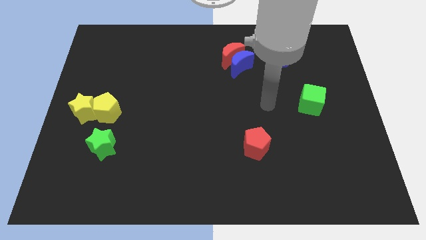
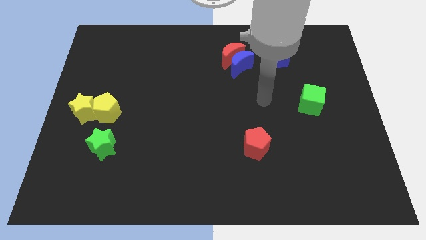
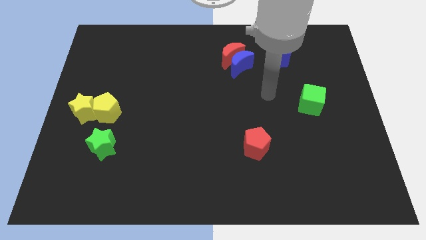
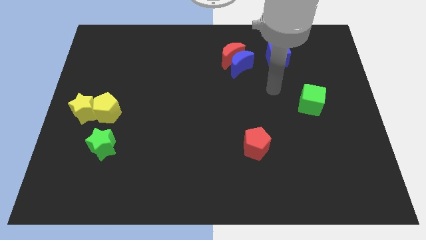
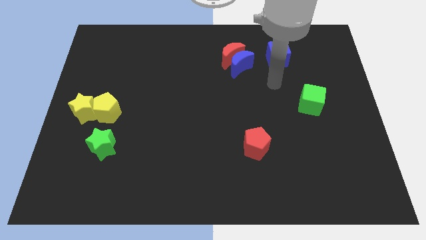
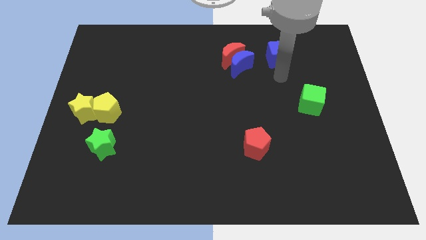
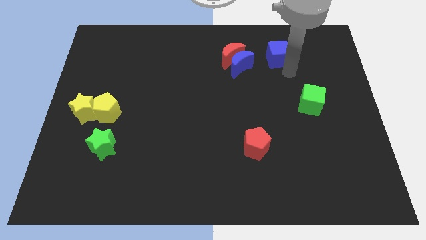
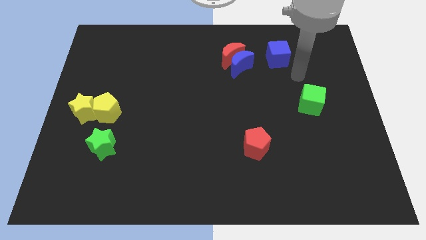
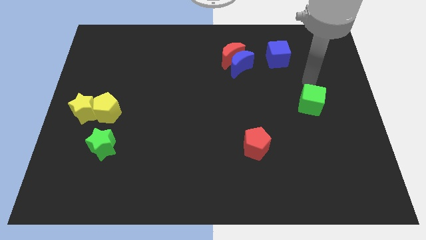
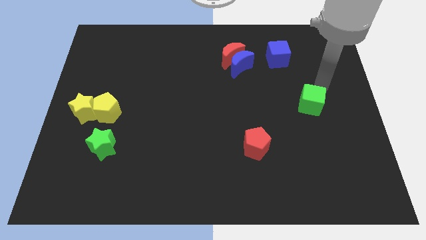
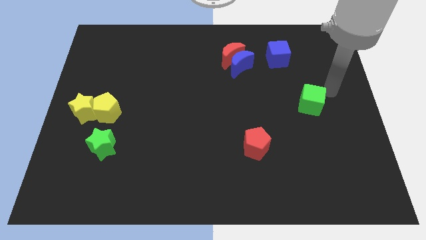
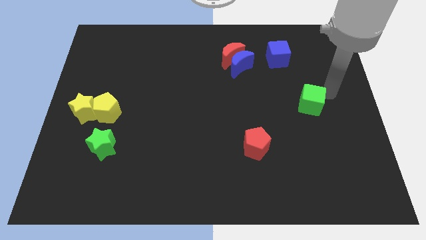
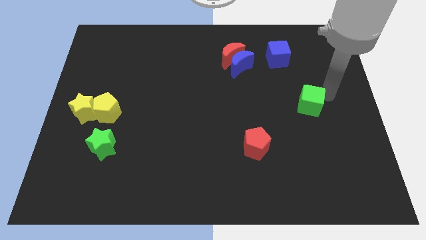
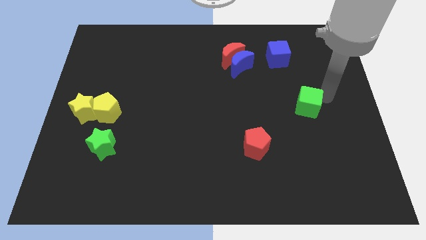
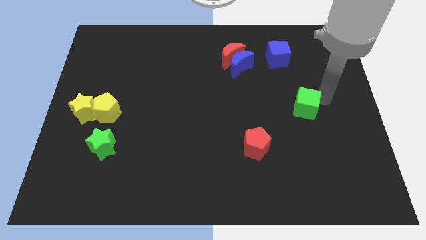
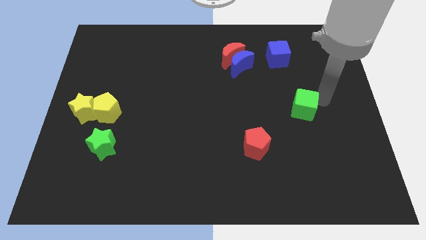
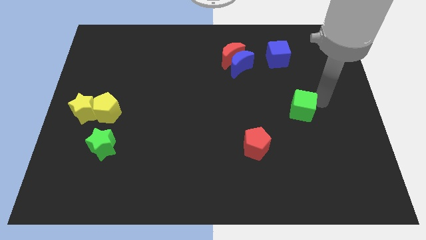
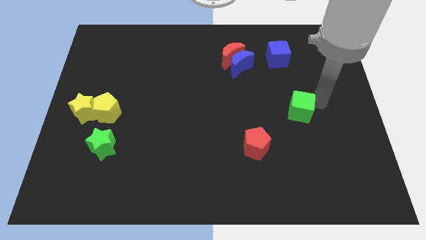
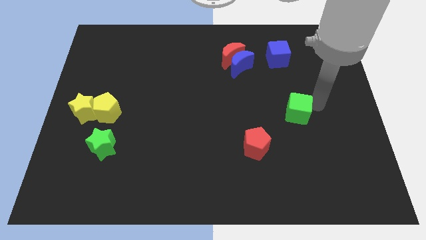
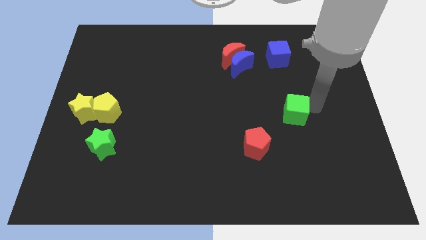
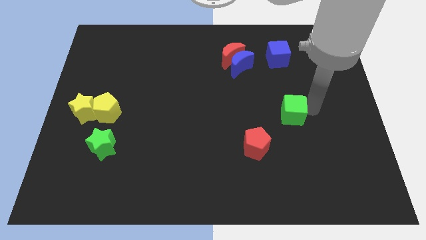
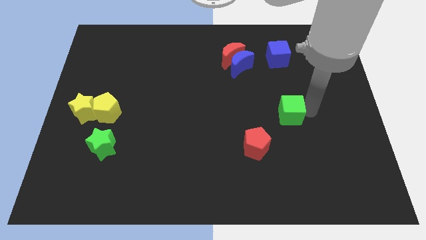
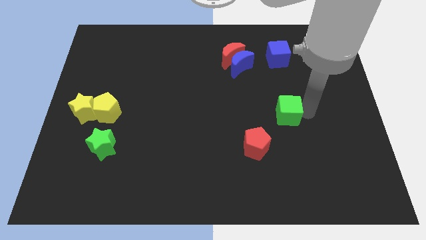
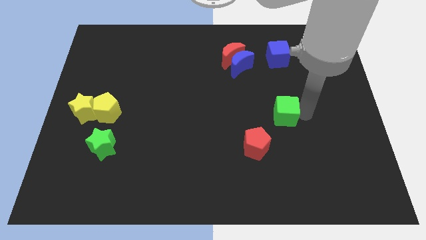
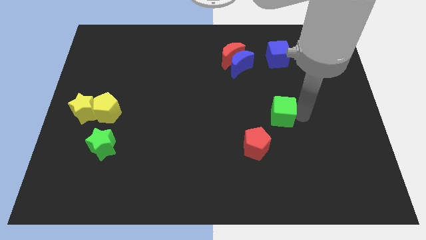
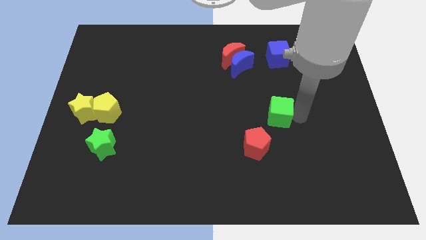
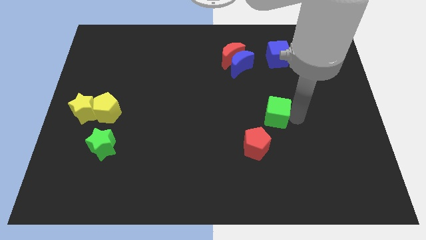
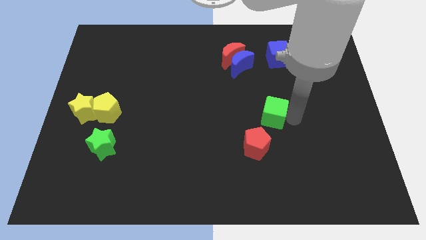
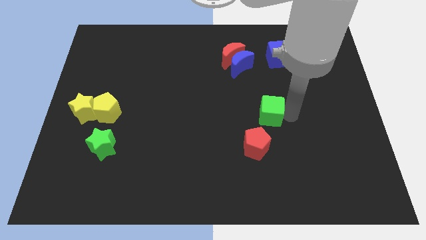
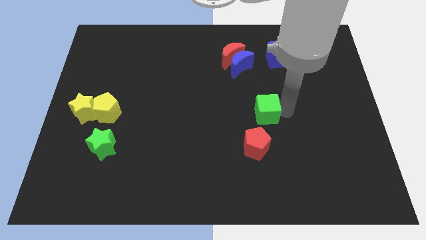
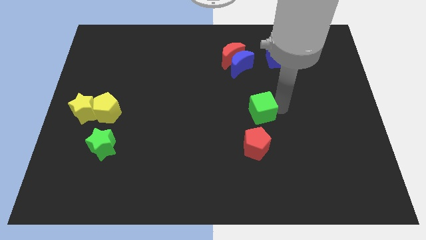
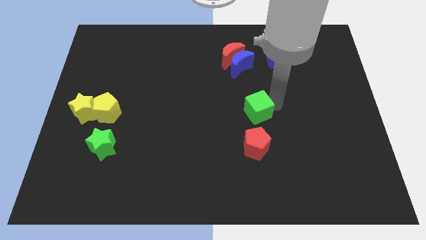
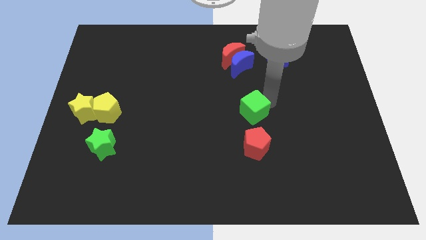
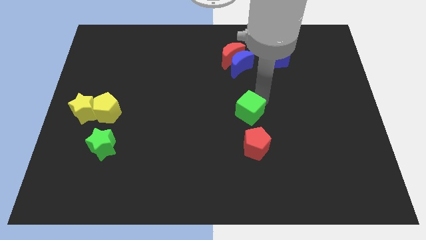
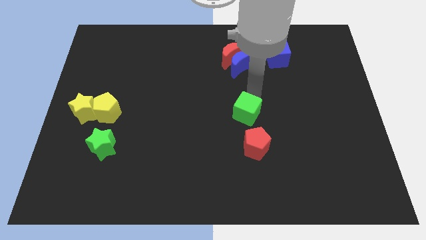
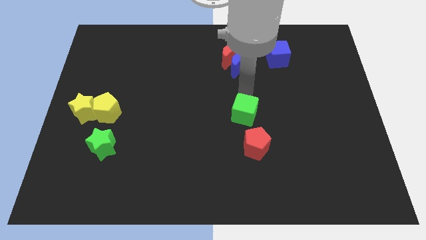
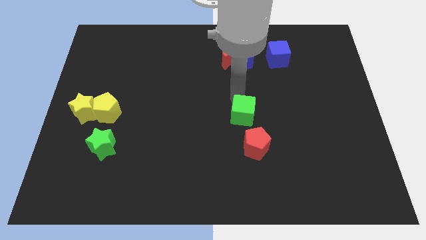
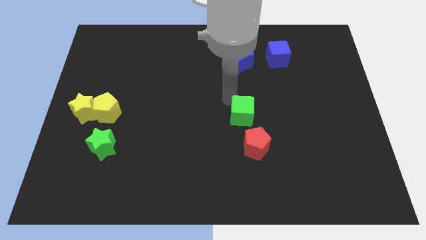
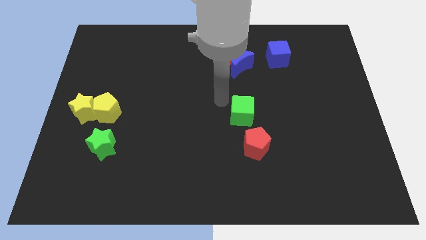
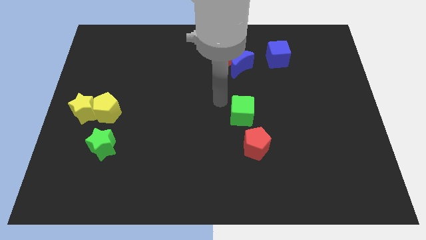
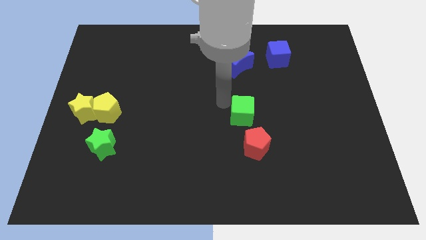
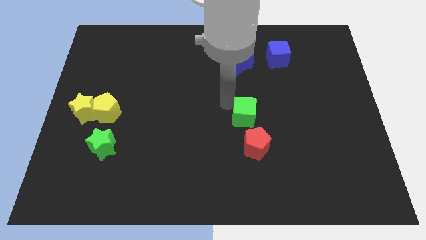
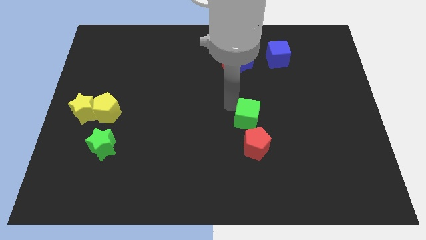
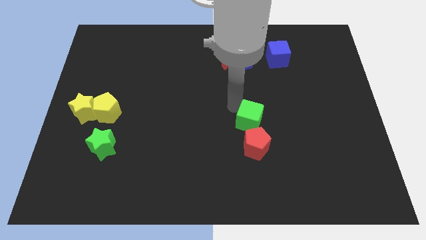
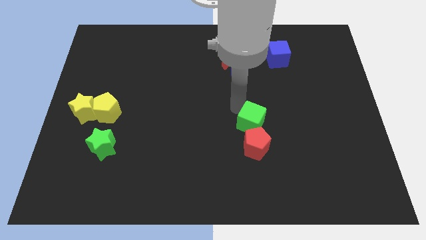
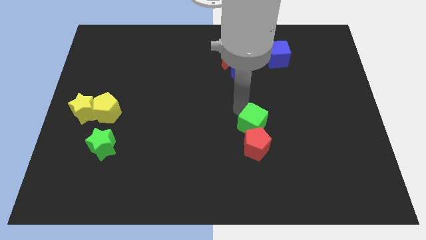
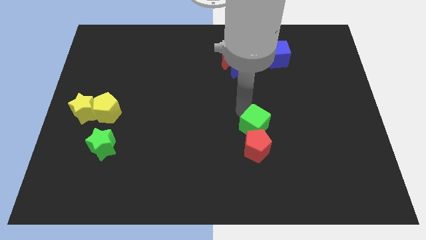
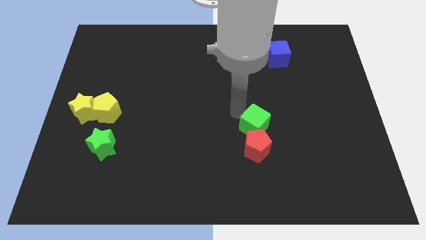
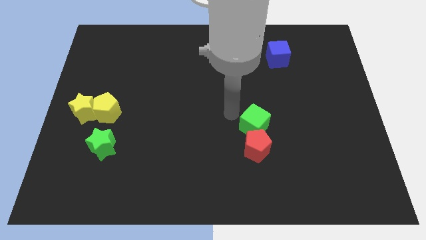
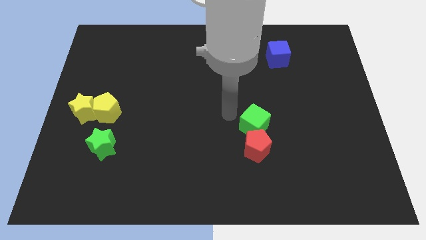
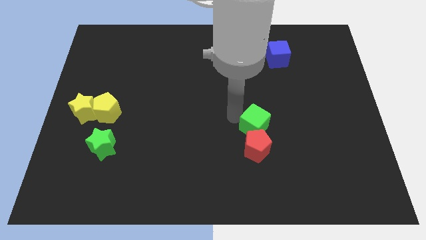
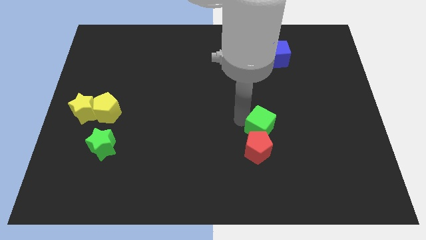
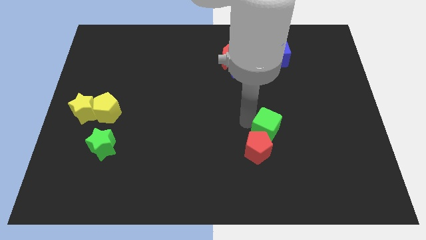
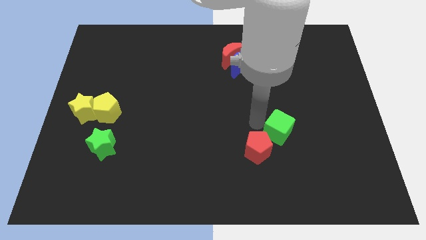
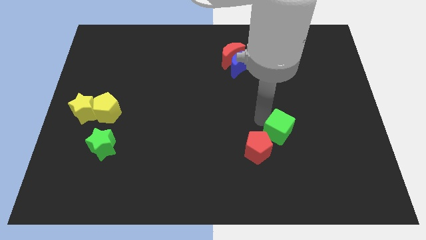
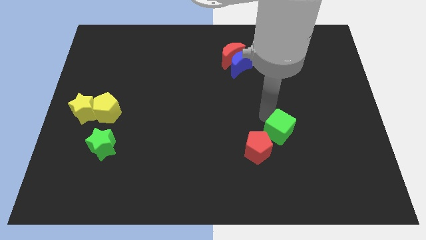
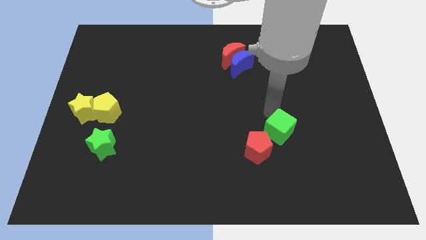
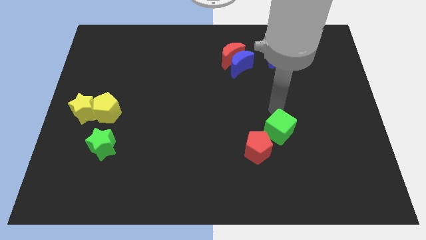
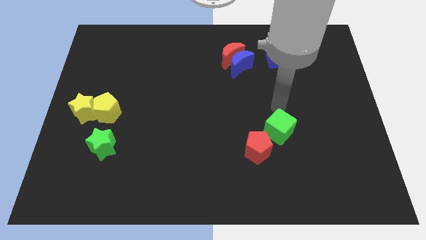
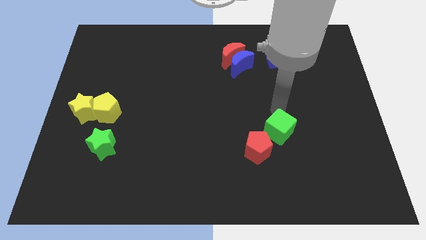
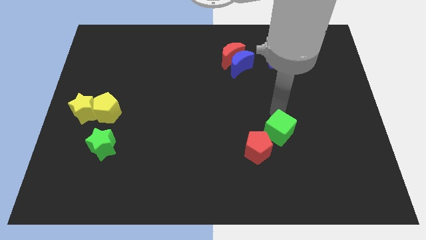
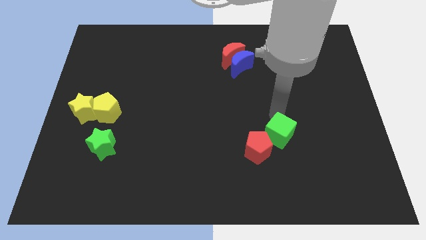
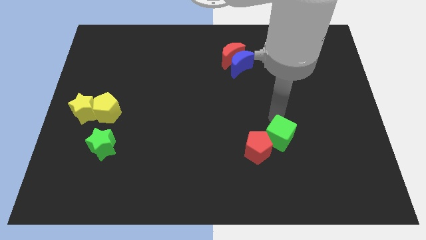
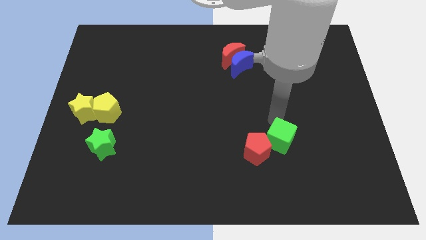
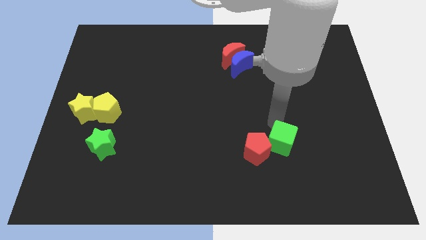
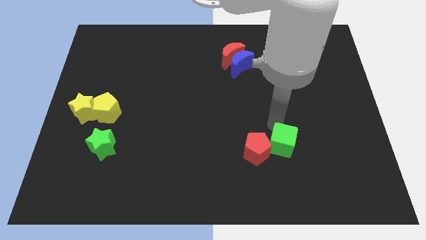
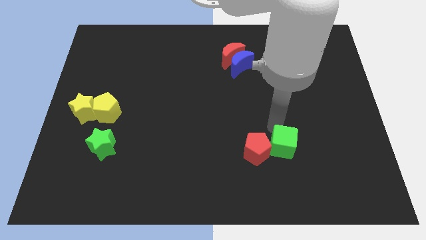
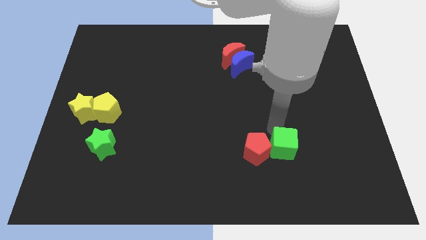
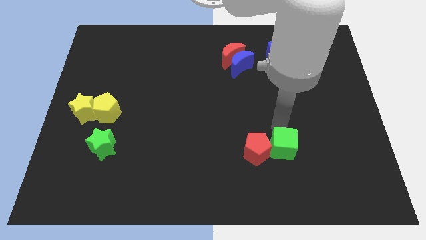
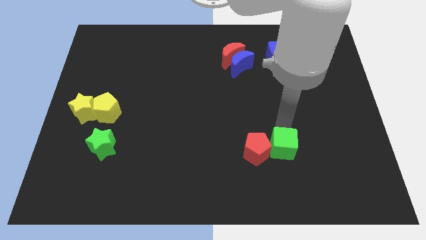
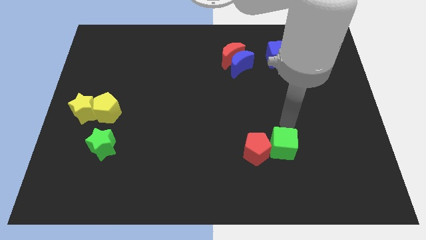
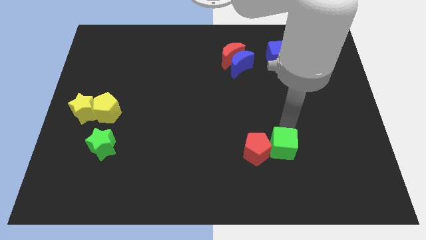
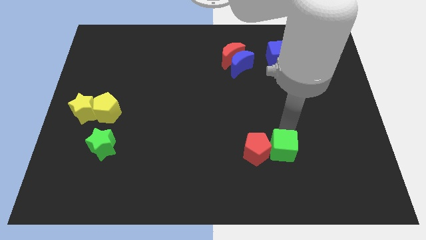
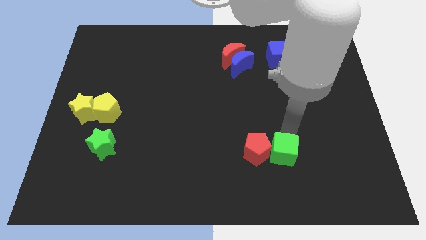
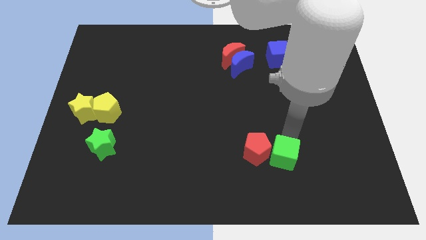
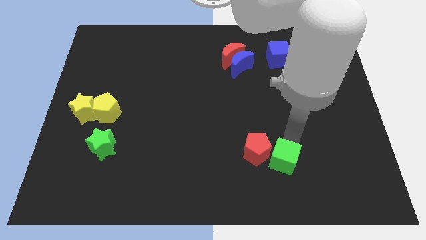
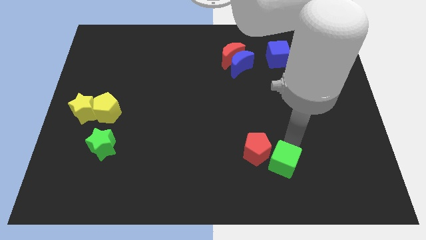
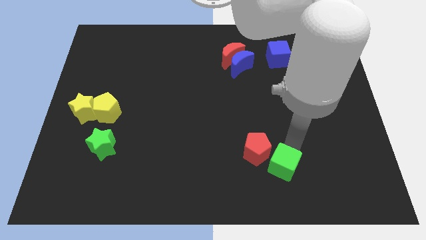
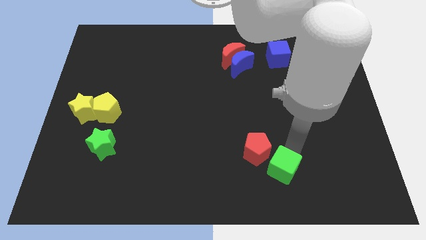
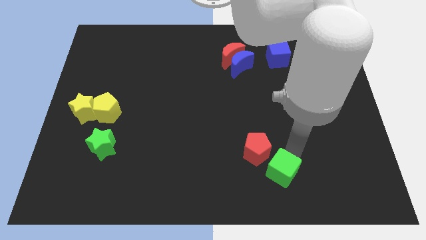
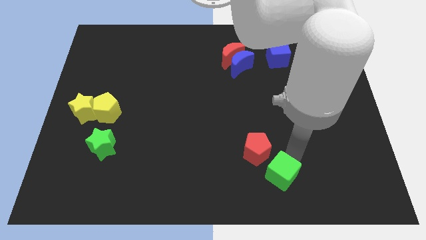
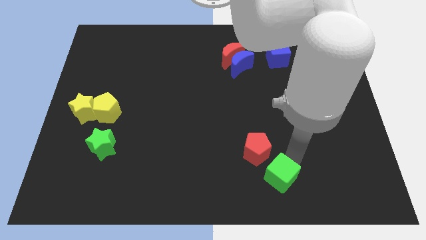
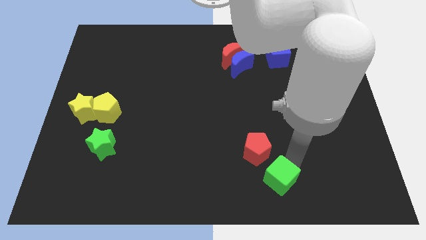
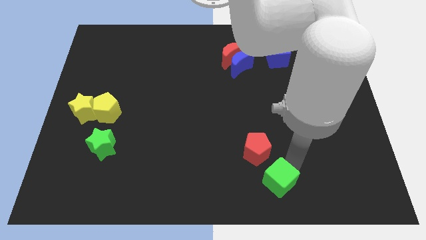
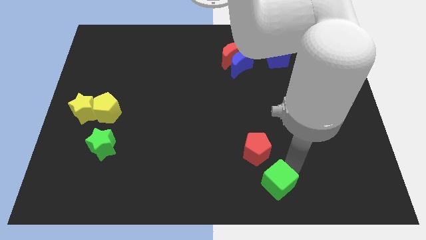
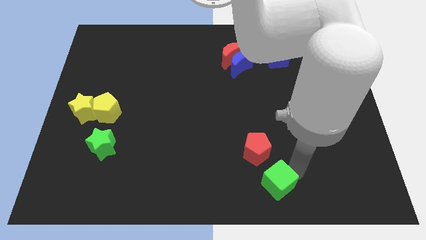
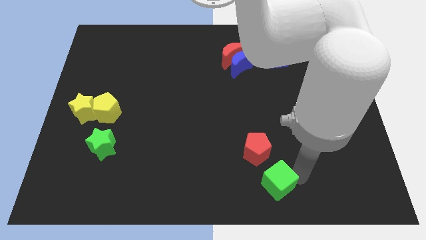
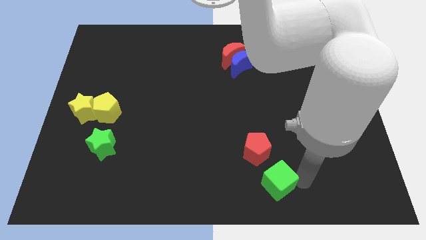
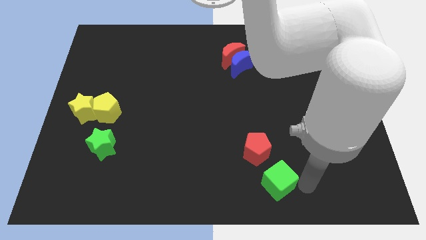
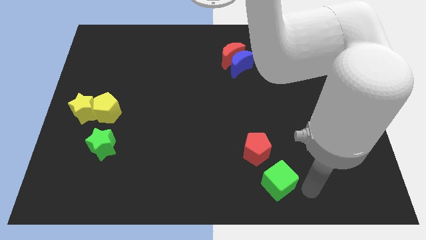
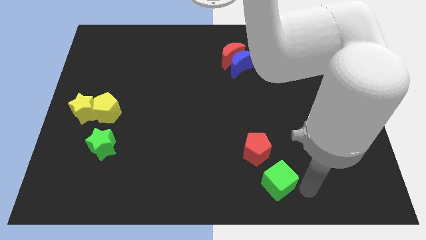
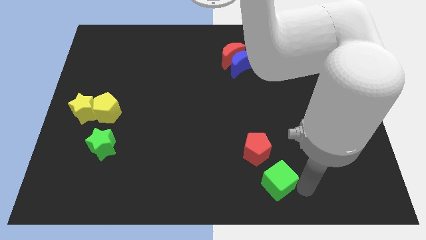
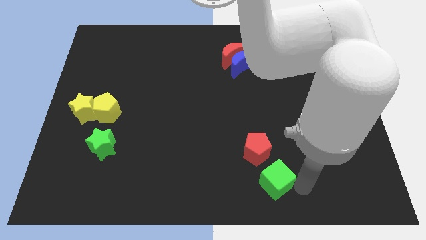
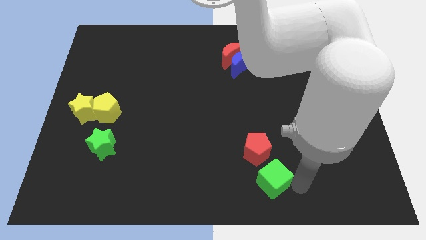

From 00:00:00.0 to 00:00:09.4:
slide the green cube to the bottom side
